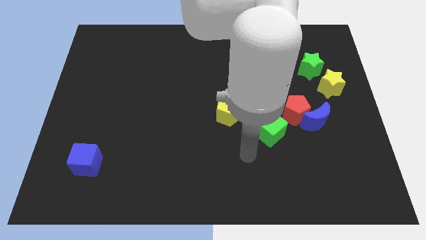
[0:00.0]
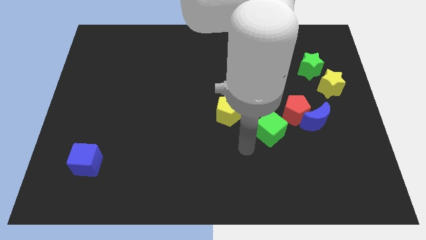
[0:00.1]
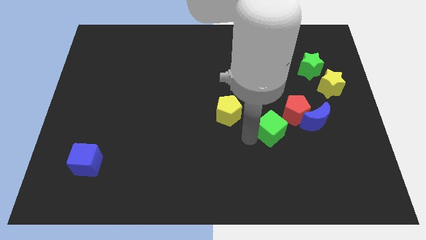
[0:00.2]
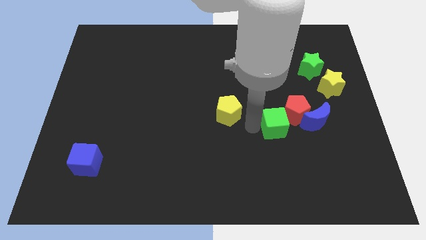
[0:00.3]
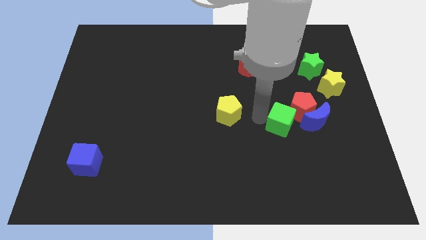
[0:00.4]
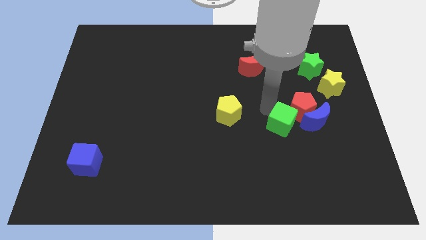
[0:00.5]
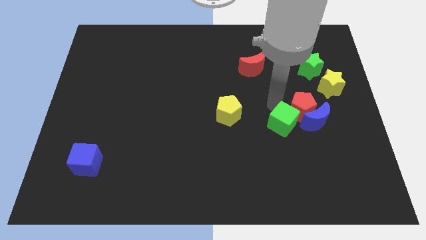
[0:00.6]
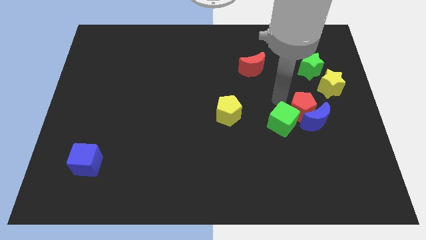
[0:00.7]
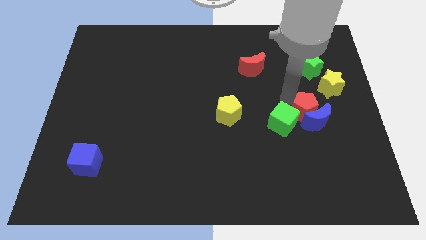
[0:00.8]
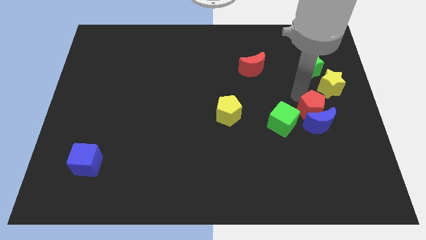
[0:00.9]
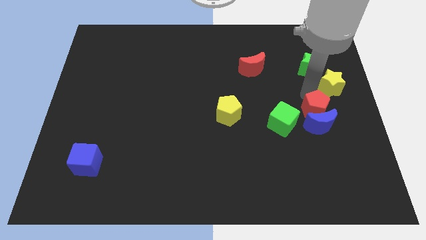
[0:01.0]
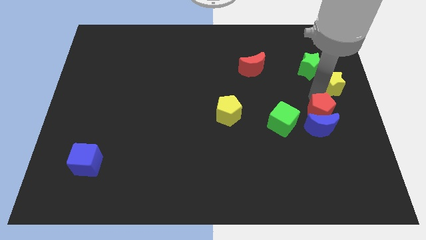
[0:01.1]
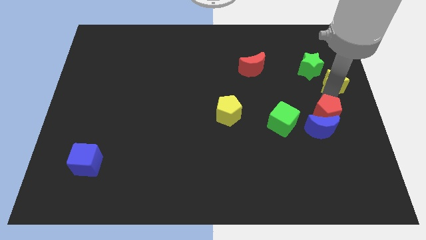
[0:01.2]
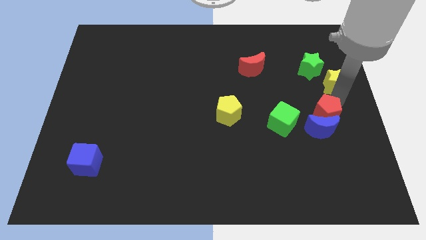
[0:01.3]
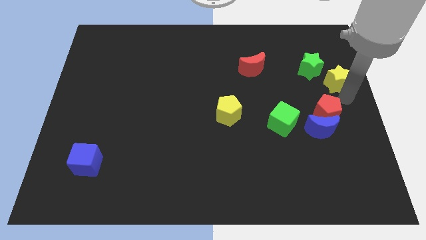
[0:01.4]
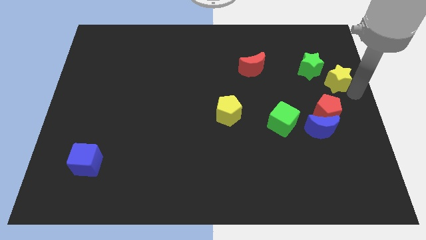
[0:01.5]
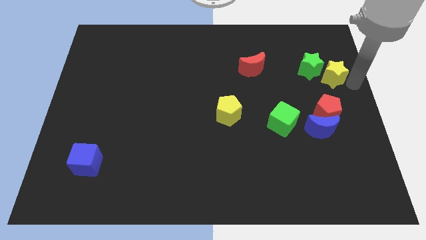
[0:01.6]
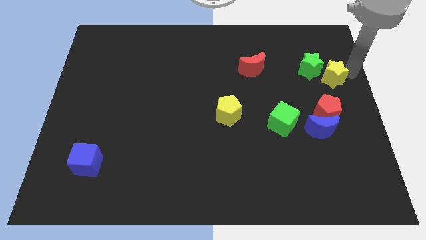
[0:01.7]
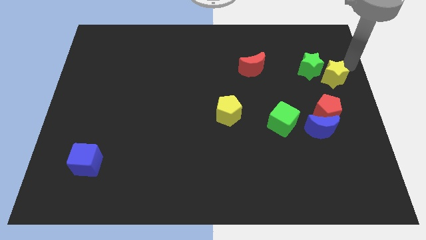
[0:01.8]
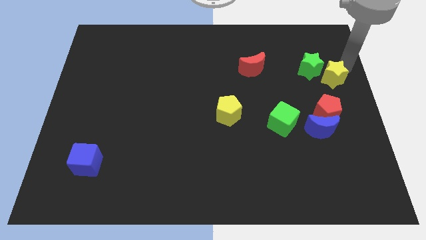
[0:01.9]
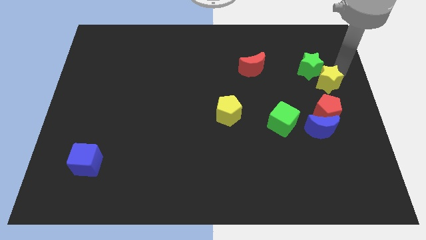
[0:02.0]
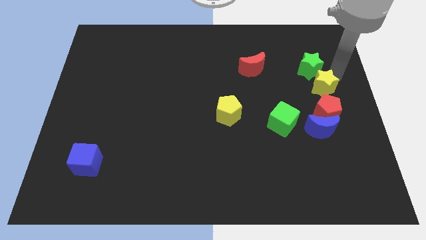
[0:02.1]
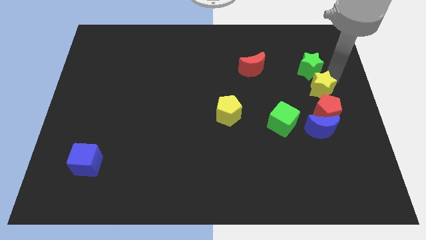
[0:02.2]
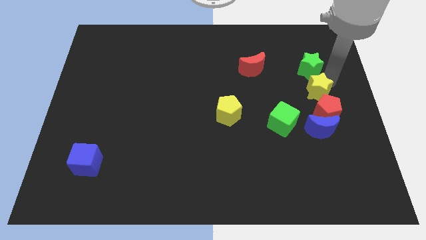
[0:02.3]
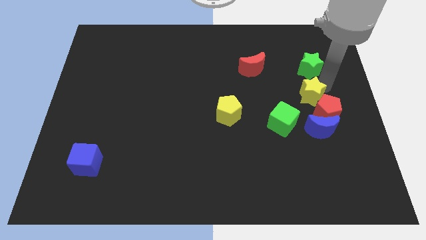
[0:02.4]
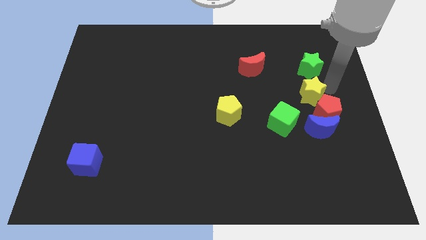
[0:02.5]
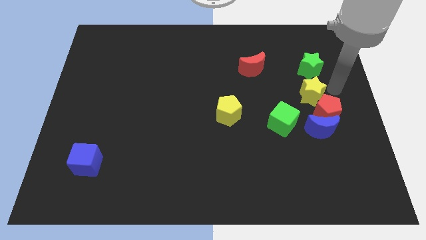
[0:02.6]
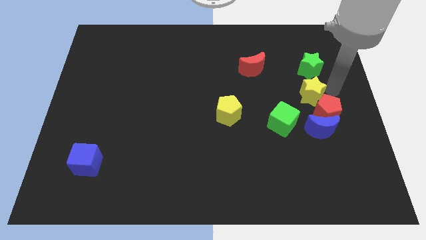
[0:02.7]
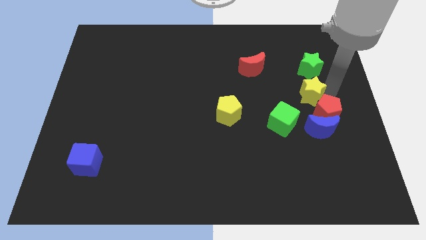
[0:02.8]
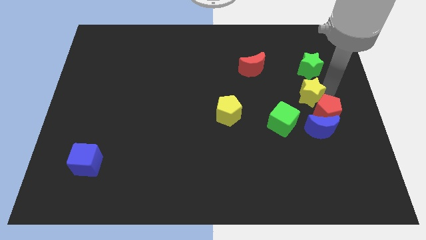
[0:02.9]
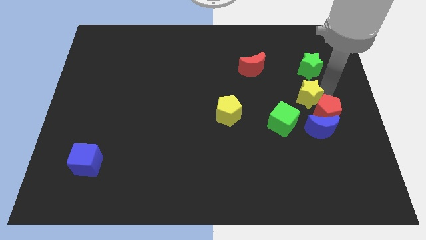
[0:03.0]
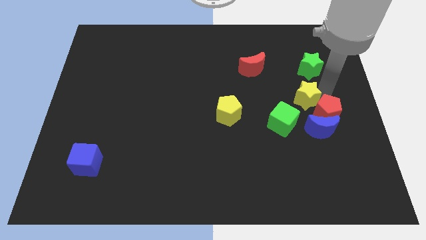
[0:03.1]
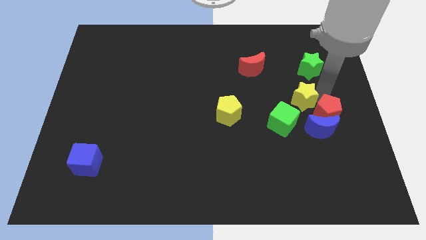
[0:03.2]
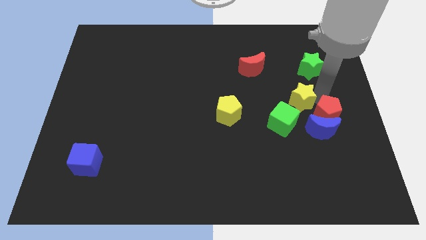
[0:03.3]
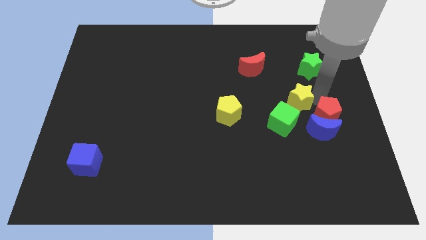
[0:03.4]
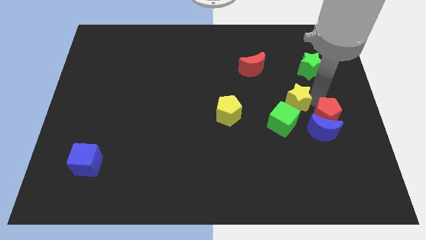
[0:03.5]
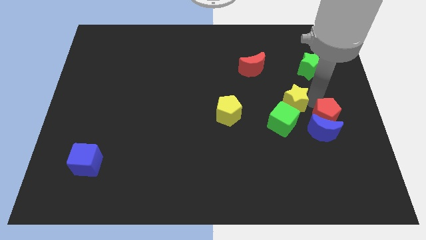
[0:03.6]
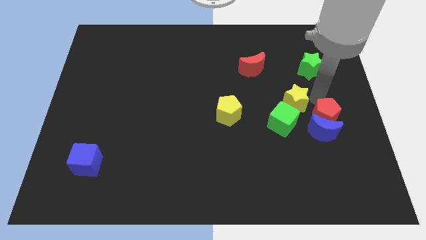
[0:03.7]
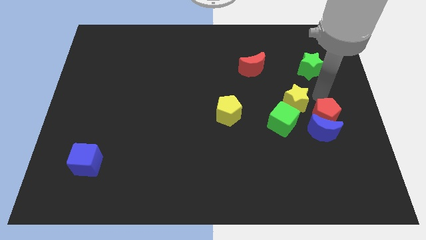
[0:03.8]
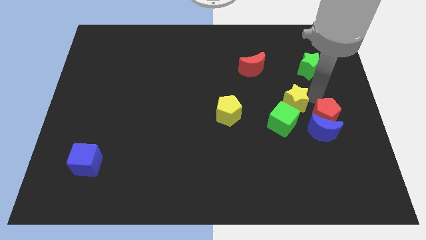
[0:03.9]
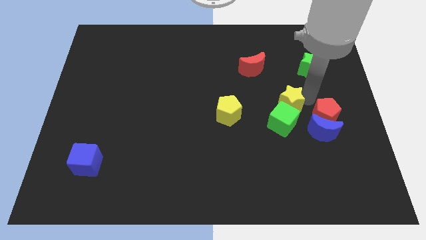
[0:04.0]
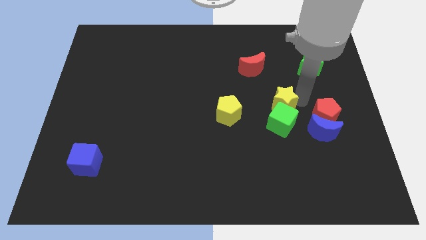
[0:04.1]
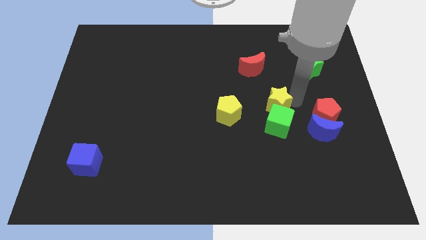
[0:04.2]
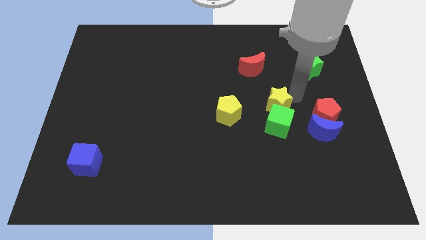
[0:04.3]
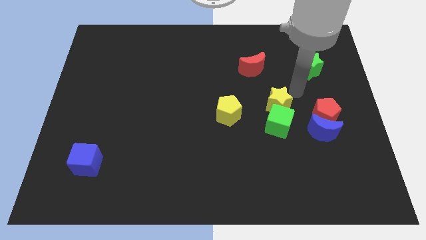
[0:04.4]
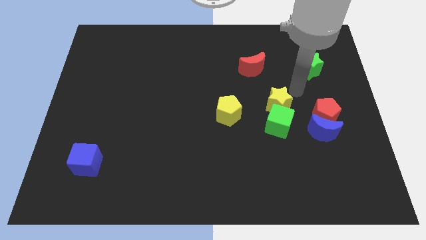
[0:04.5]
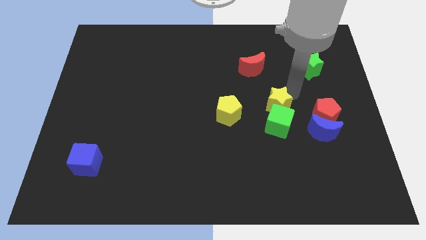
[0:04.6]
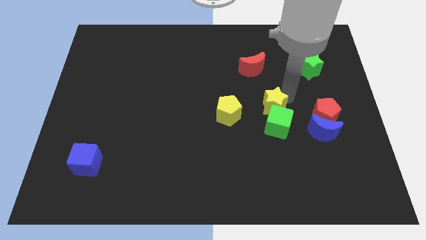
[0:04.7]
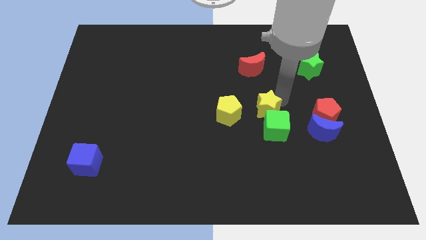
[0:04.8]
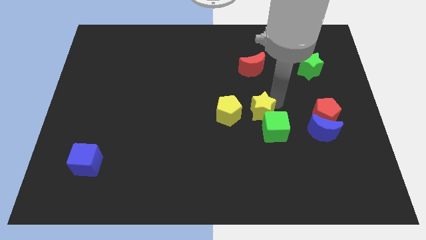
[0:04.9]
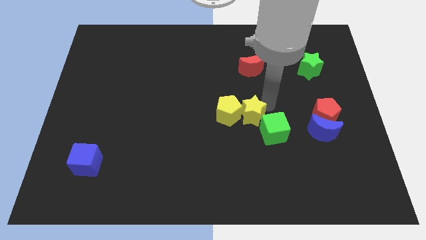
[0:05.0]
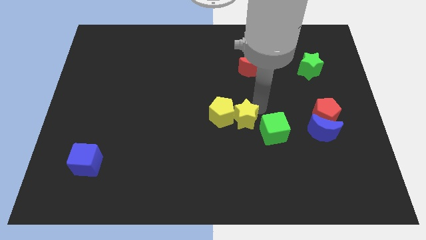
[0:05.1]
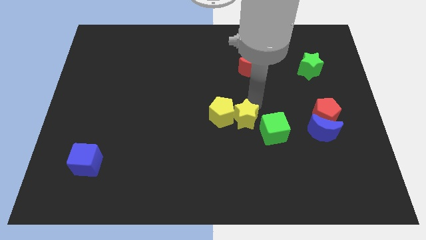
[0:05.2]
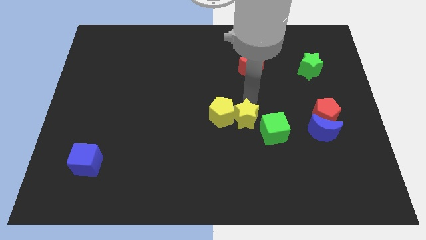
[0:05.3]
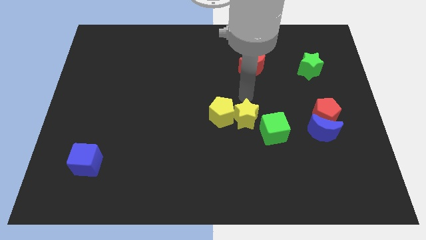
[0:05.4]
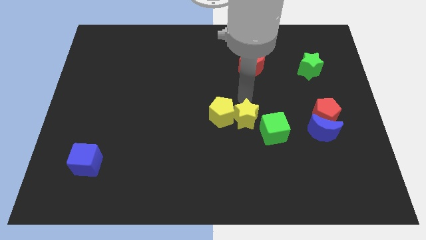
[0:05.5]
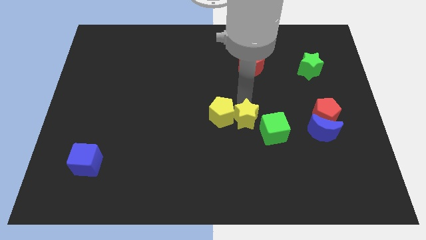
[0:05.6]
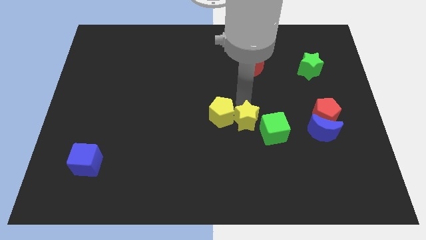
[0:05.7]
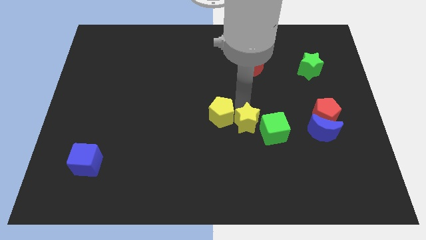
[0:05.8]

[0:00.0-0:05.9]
push the yellow star down and to the left

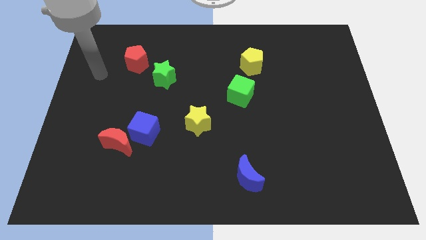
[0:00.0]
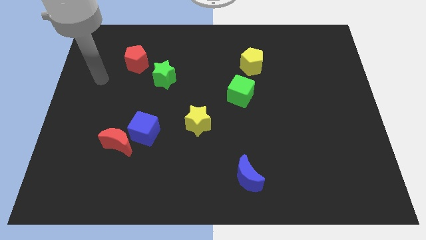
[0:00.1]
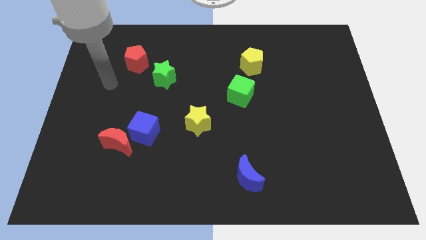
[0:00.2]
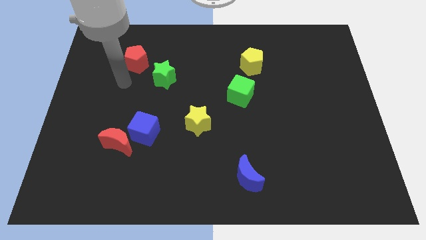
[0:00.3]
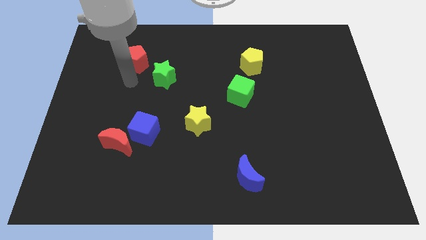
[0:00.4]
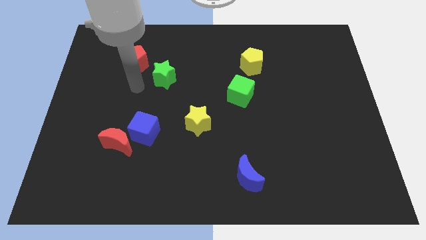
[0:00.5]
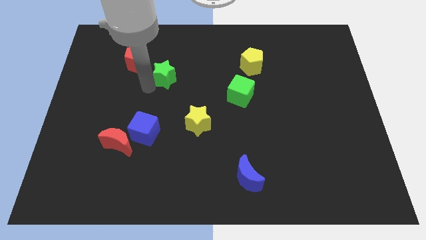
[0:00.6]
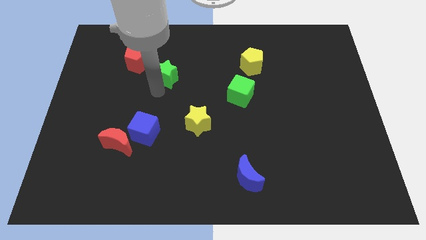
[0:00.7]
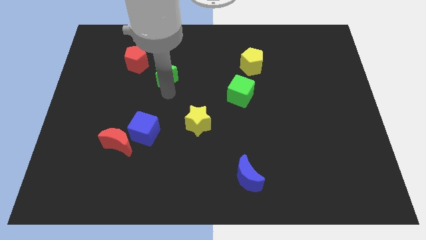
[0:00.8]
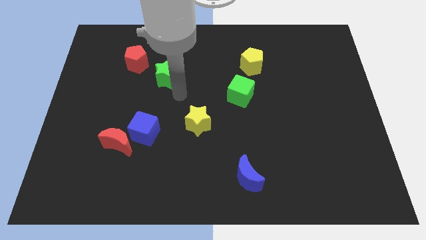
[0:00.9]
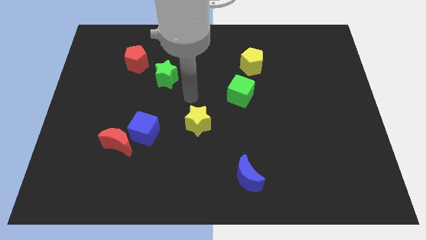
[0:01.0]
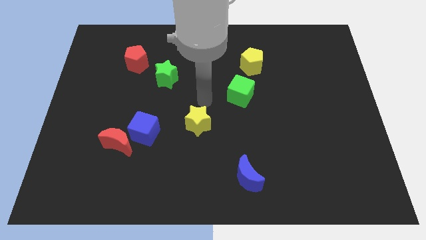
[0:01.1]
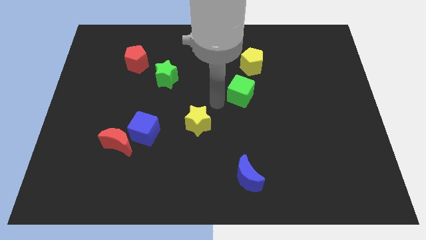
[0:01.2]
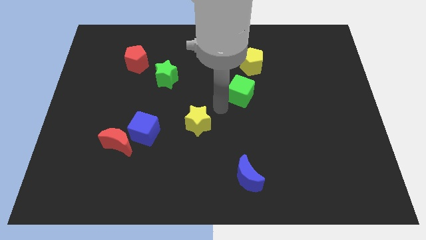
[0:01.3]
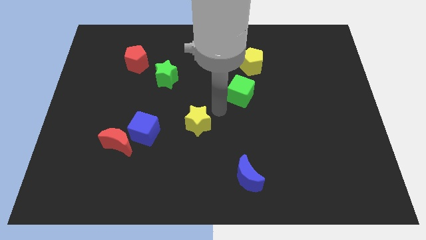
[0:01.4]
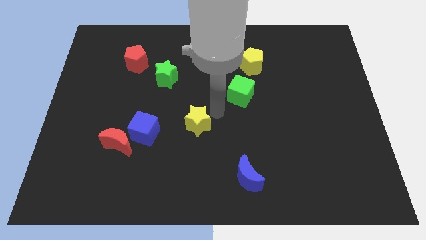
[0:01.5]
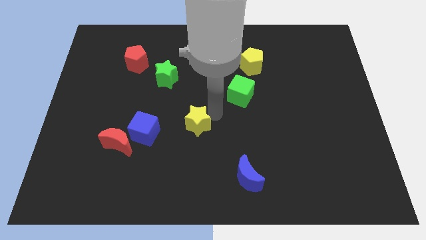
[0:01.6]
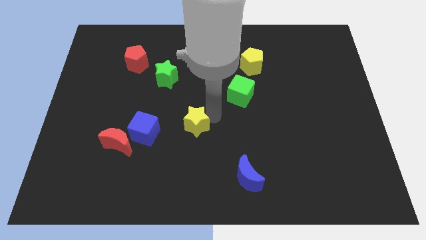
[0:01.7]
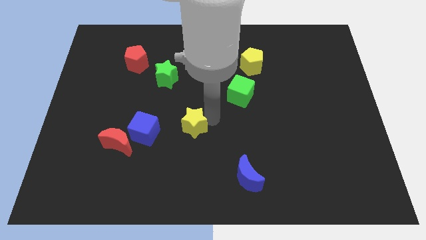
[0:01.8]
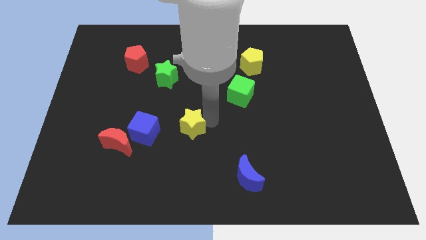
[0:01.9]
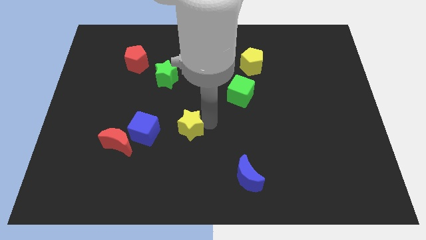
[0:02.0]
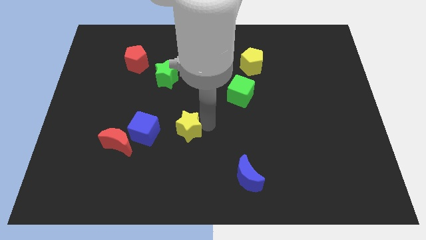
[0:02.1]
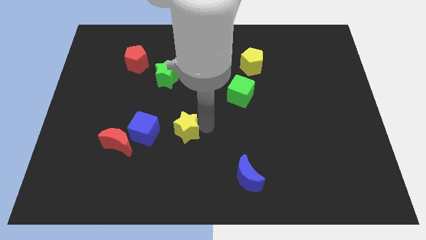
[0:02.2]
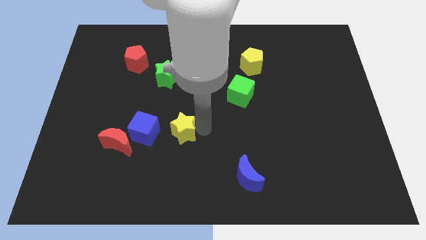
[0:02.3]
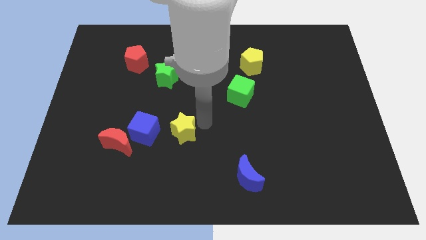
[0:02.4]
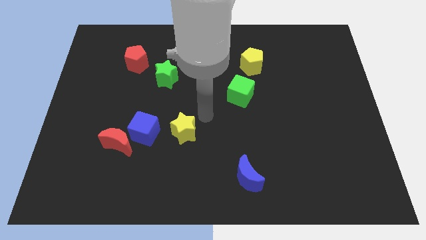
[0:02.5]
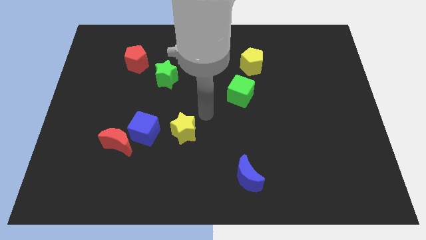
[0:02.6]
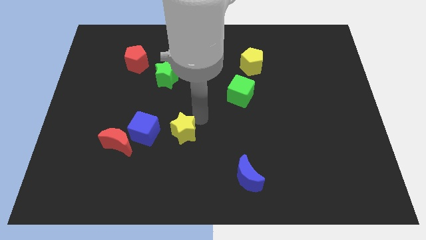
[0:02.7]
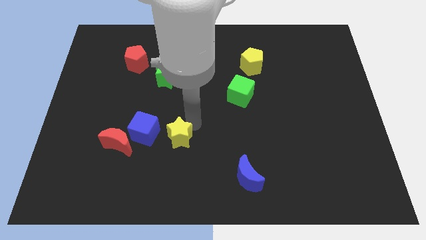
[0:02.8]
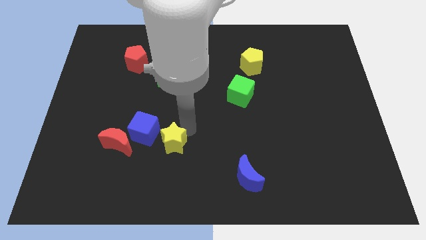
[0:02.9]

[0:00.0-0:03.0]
slightly slide the yellow star downwards and to the left
